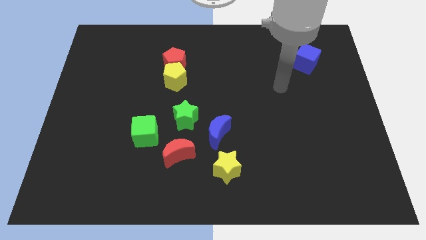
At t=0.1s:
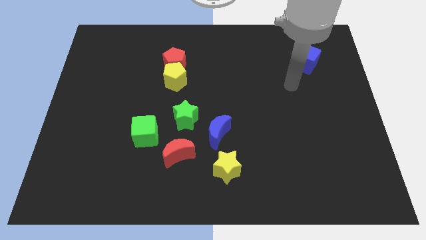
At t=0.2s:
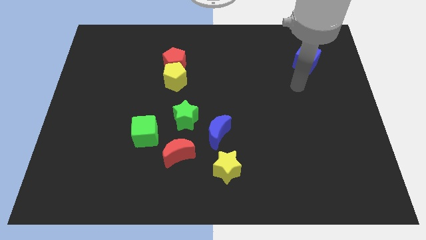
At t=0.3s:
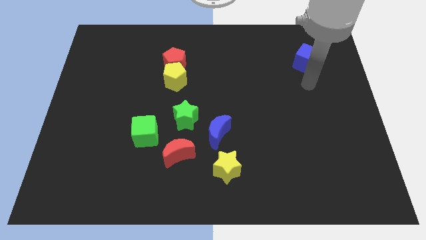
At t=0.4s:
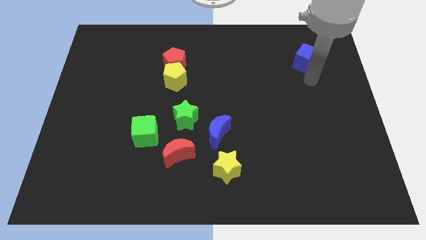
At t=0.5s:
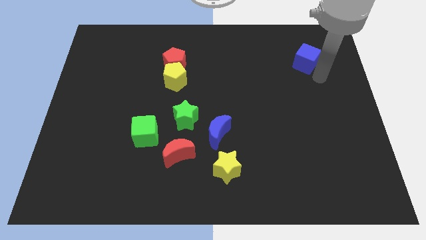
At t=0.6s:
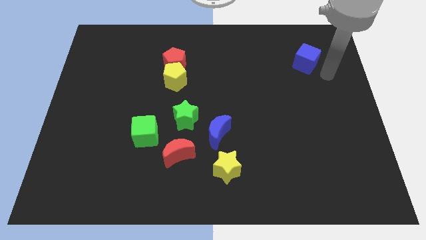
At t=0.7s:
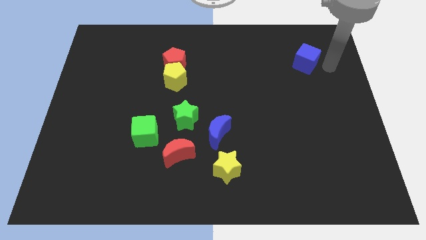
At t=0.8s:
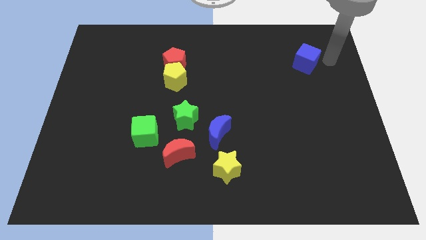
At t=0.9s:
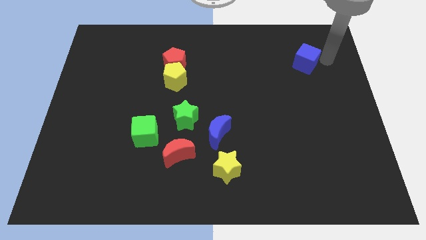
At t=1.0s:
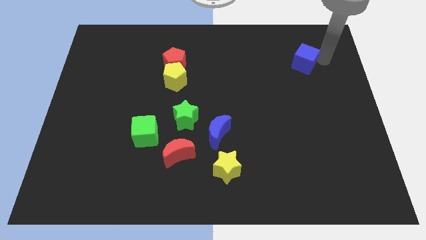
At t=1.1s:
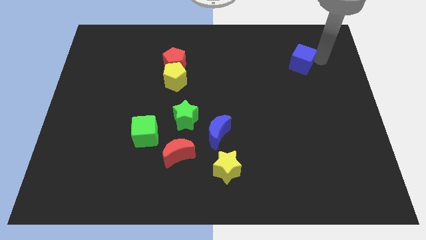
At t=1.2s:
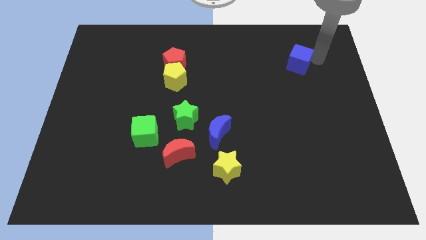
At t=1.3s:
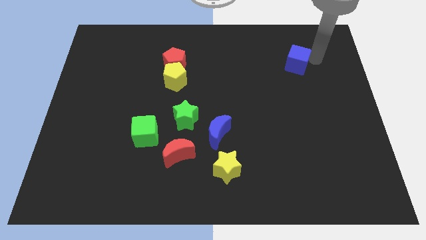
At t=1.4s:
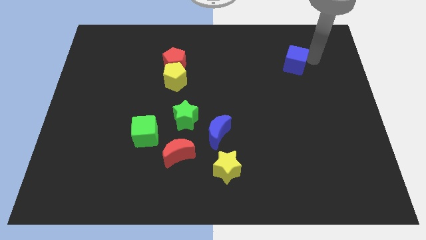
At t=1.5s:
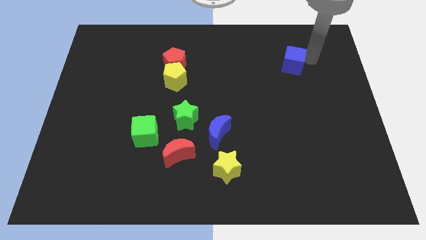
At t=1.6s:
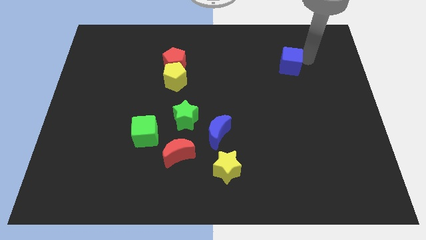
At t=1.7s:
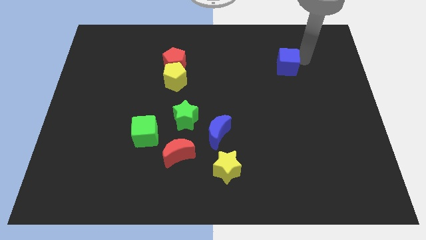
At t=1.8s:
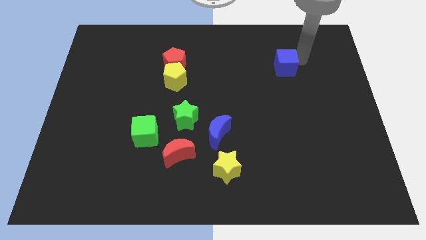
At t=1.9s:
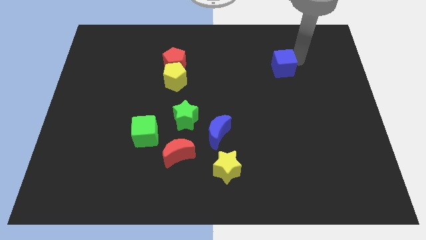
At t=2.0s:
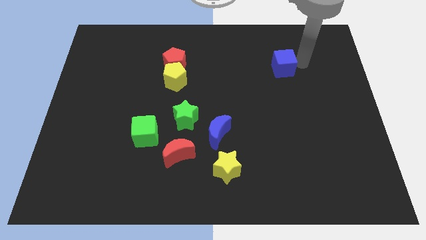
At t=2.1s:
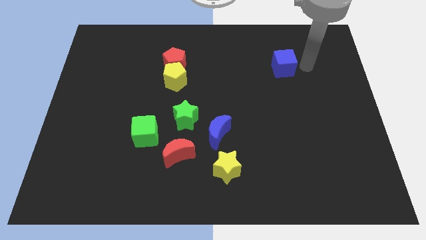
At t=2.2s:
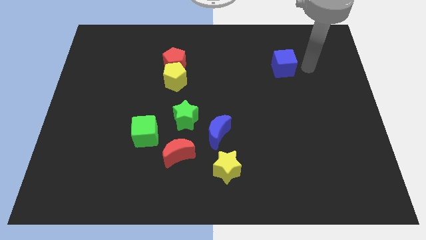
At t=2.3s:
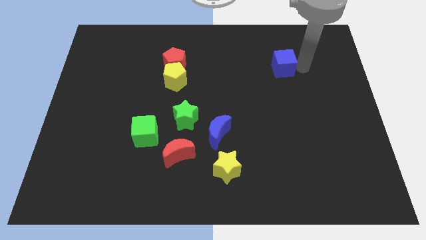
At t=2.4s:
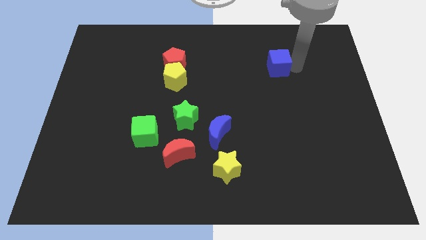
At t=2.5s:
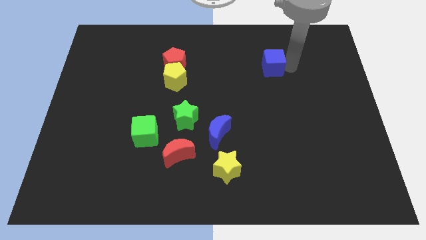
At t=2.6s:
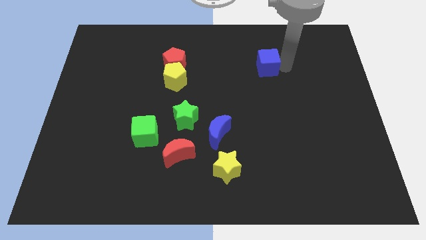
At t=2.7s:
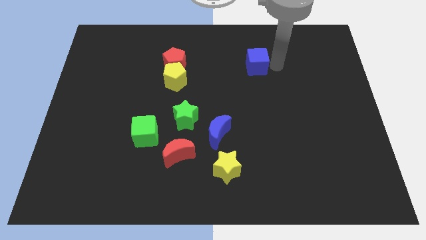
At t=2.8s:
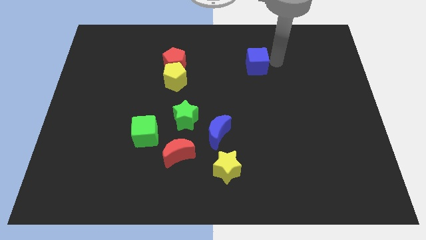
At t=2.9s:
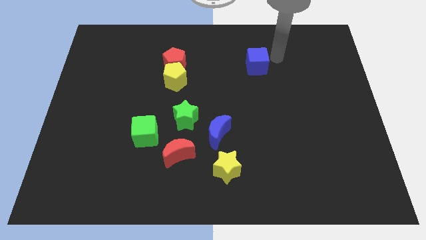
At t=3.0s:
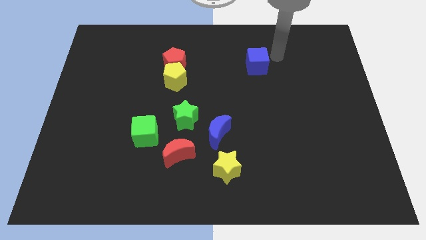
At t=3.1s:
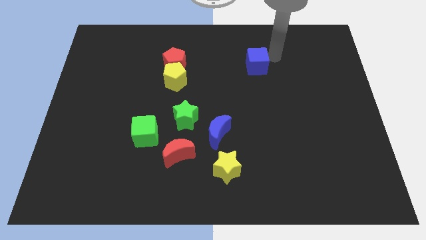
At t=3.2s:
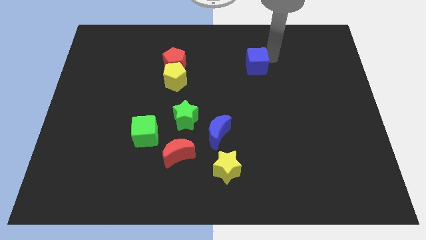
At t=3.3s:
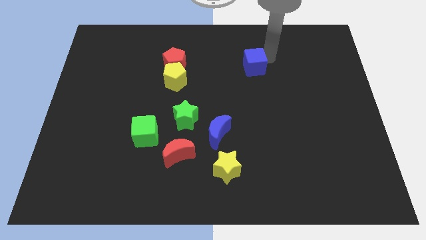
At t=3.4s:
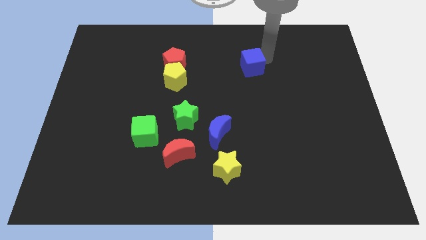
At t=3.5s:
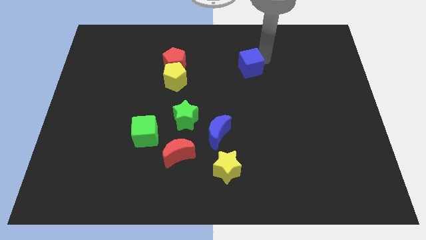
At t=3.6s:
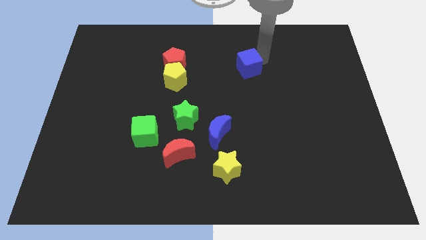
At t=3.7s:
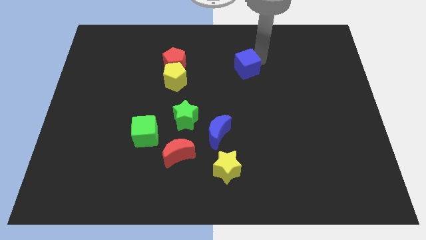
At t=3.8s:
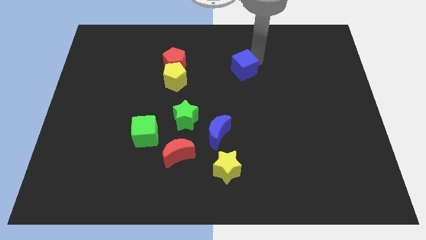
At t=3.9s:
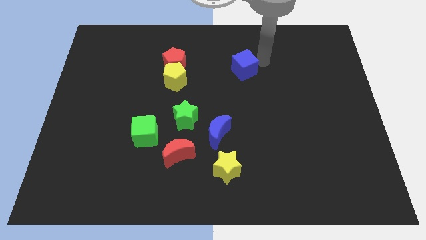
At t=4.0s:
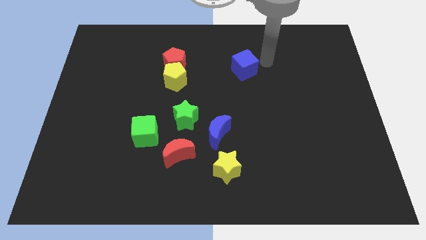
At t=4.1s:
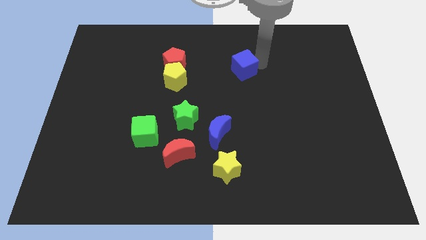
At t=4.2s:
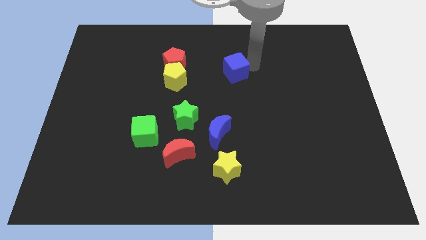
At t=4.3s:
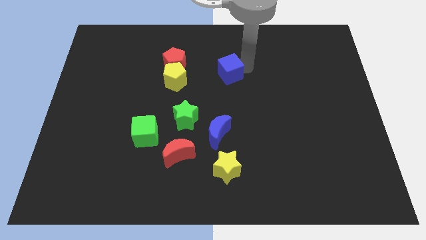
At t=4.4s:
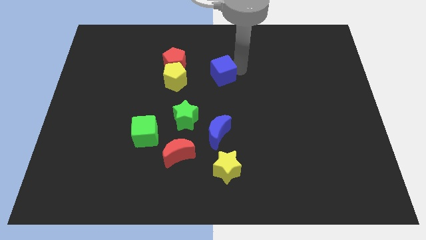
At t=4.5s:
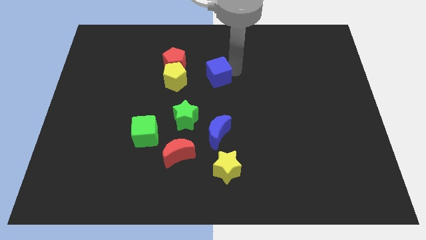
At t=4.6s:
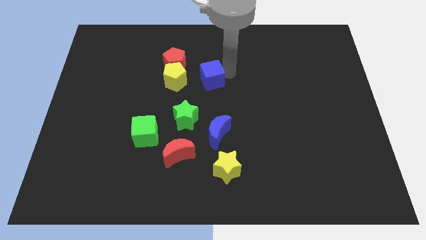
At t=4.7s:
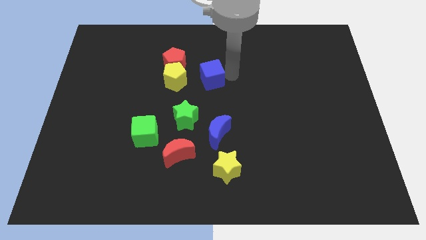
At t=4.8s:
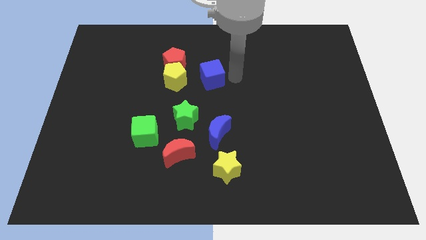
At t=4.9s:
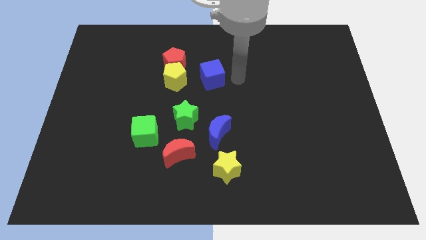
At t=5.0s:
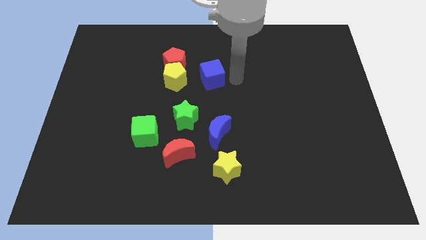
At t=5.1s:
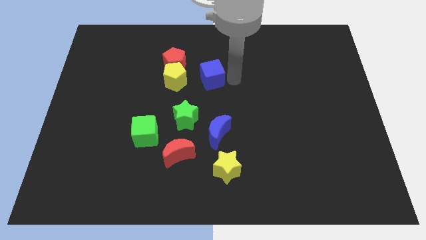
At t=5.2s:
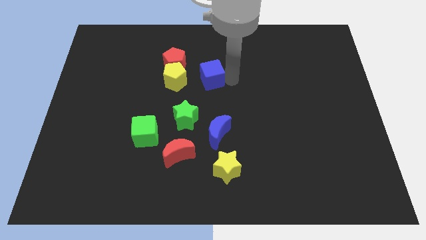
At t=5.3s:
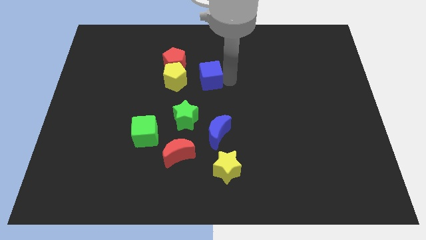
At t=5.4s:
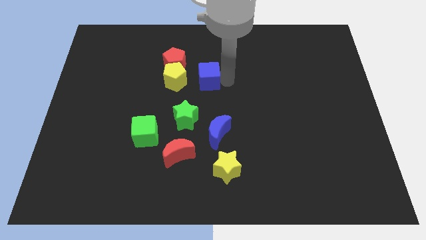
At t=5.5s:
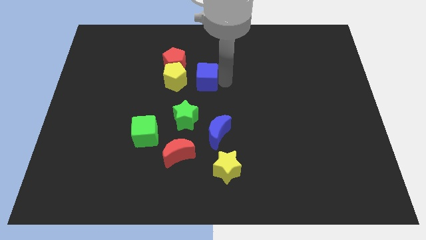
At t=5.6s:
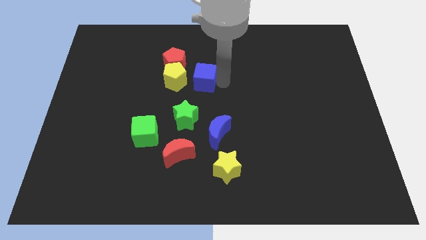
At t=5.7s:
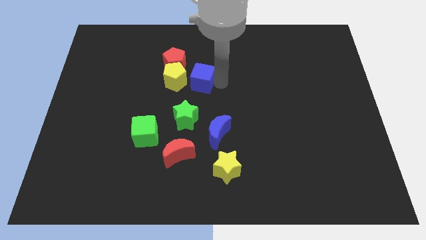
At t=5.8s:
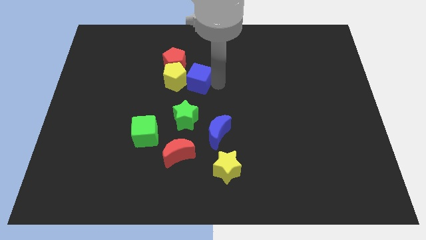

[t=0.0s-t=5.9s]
put the blue cube towards the yellow pentagon
